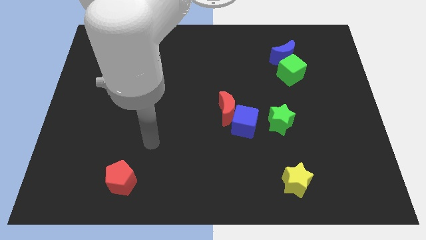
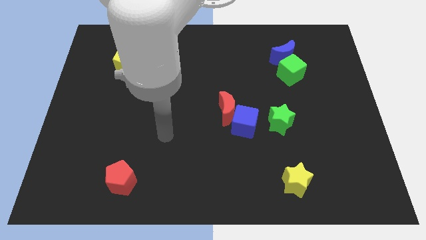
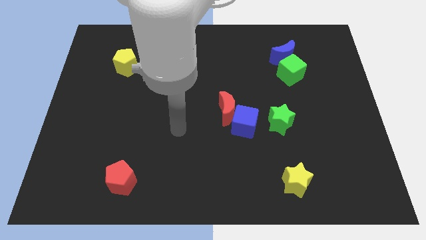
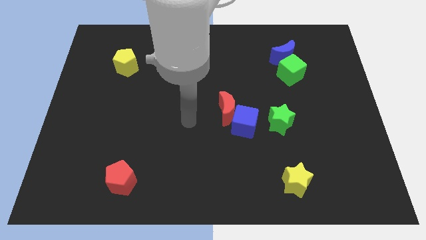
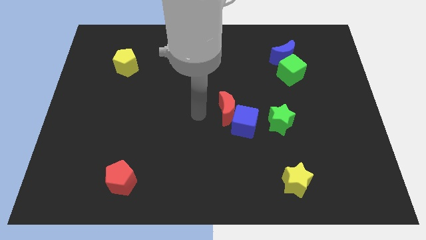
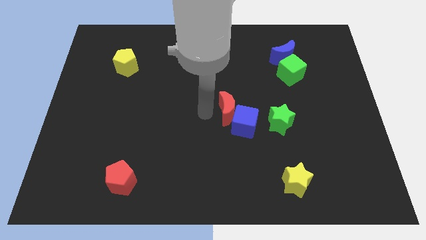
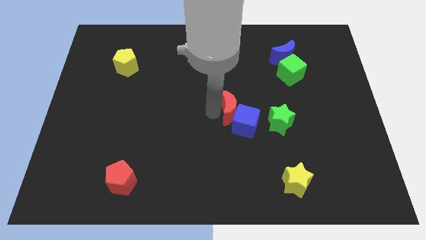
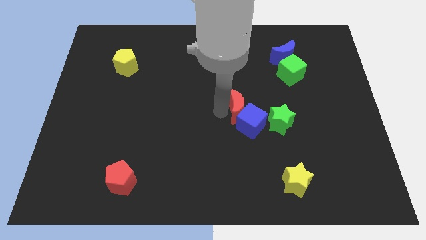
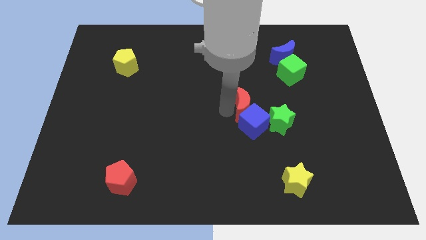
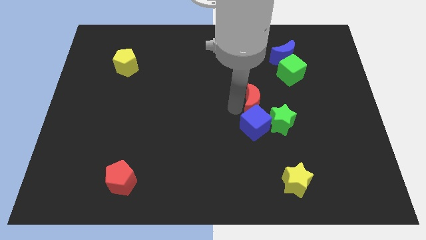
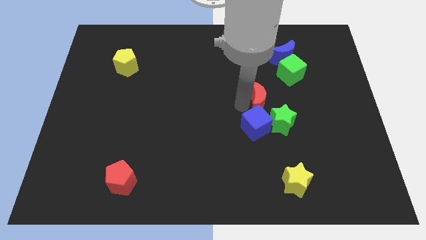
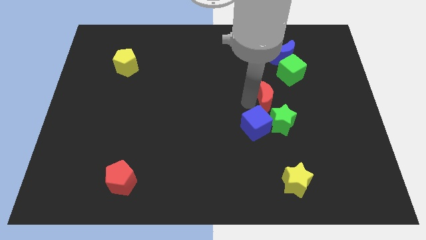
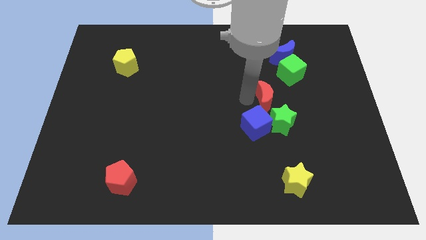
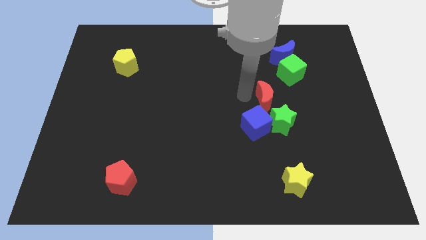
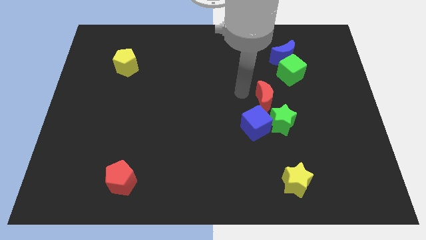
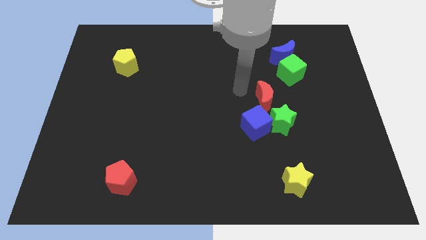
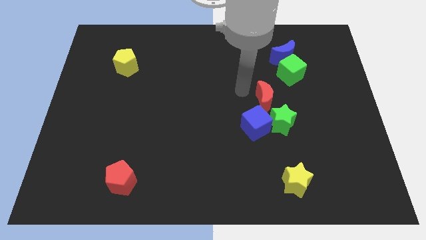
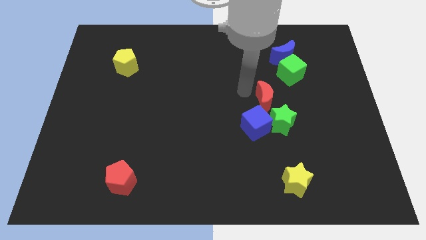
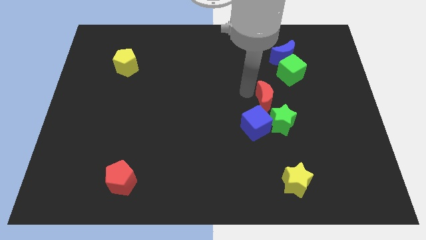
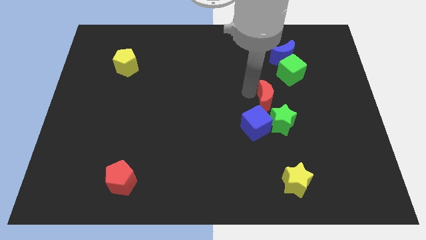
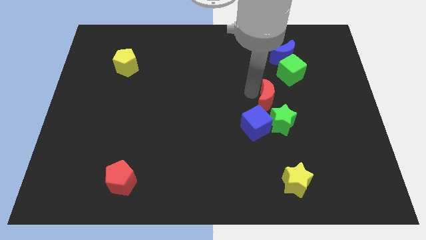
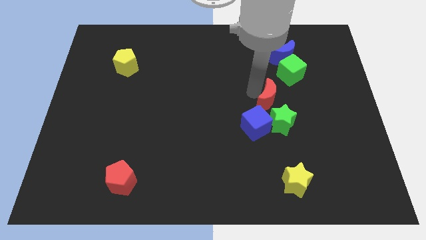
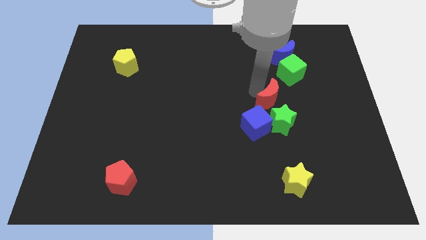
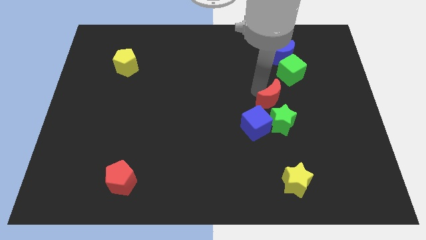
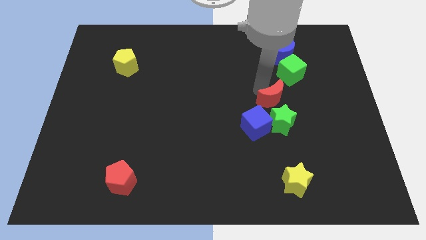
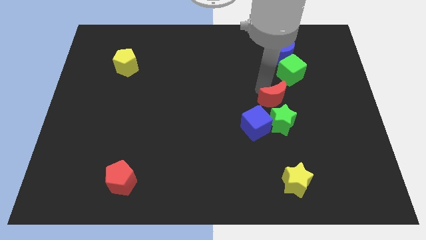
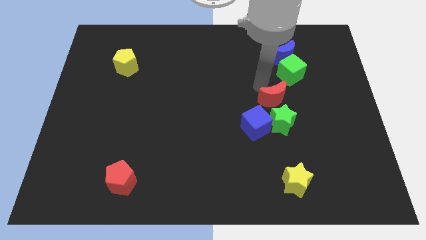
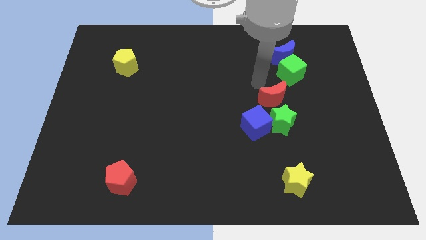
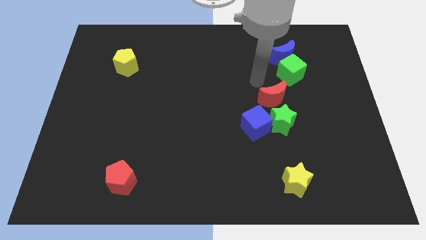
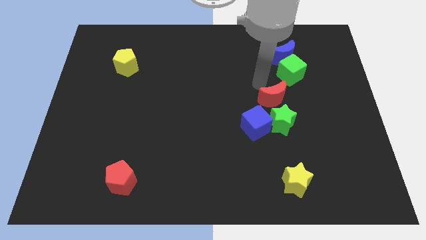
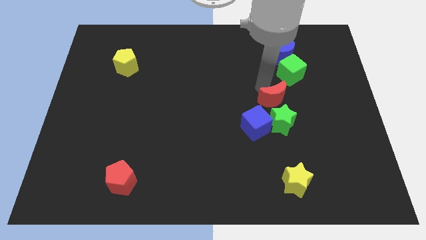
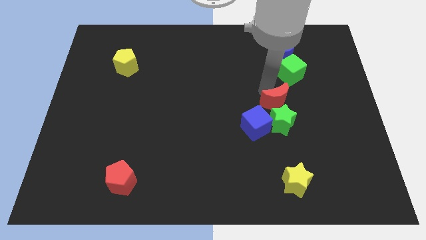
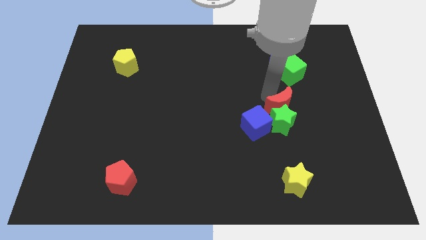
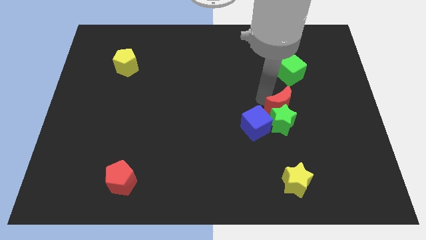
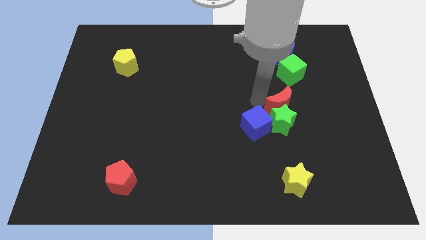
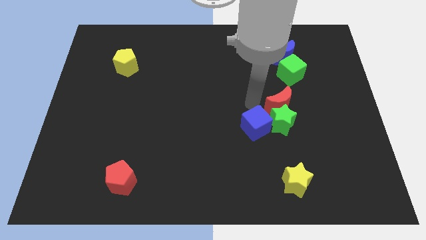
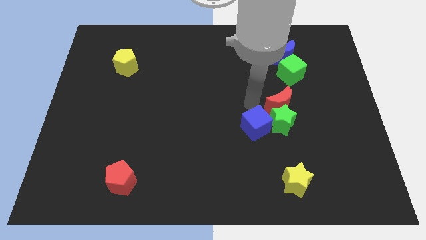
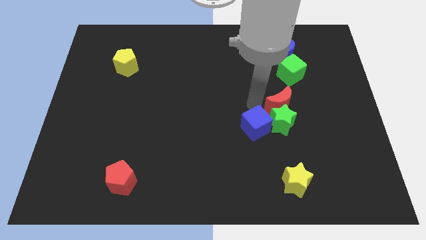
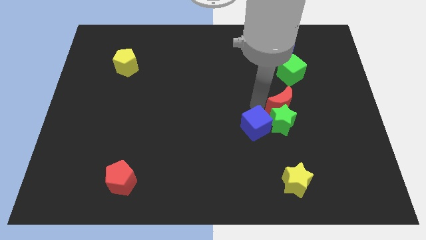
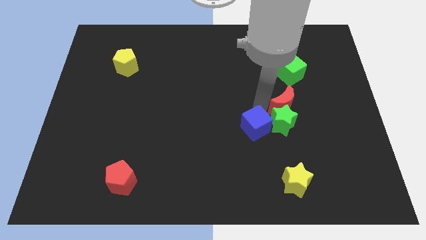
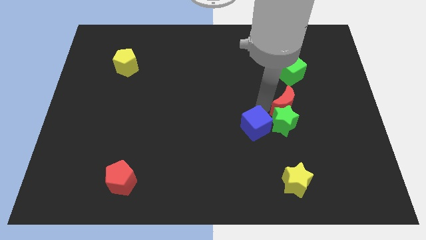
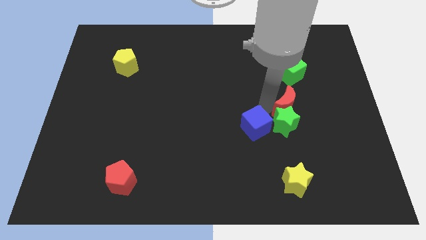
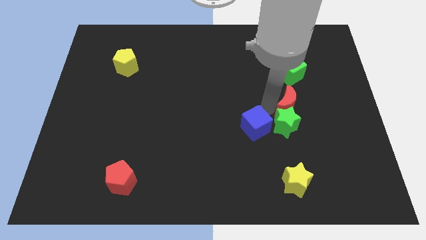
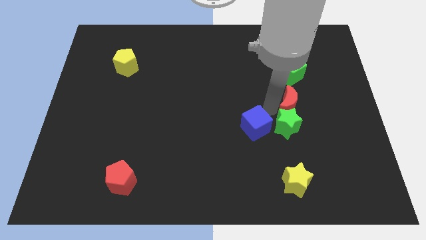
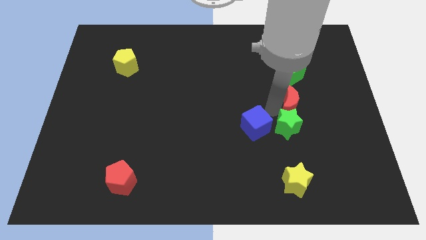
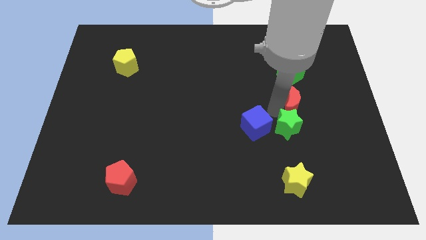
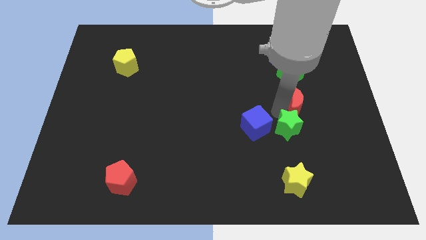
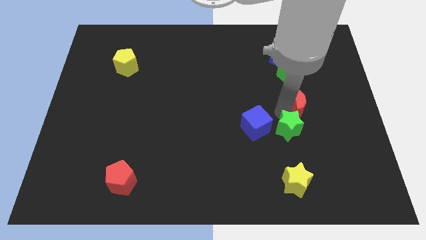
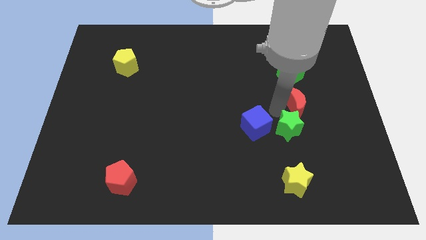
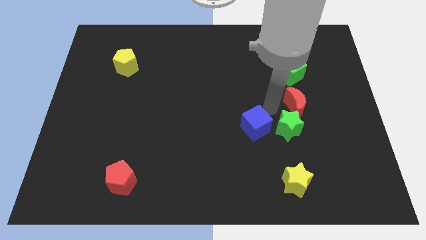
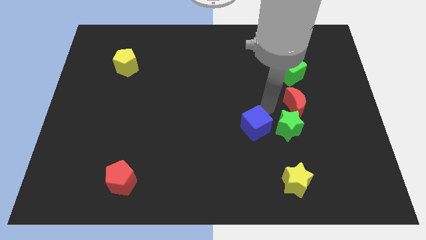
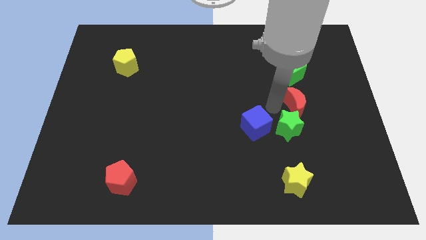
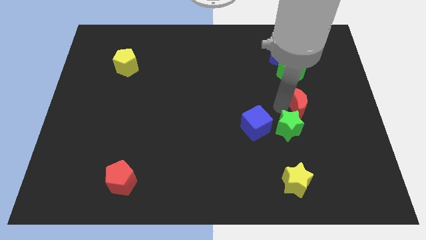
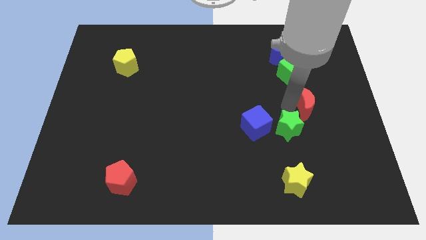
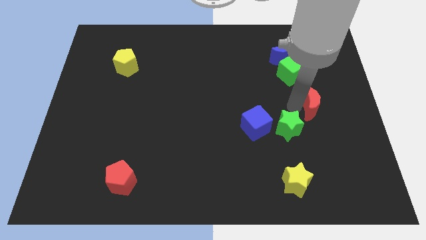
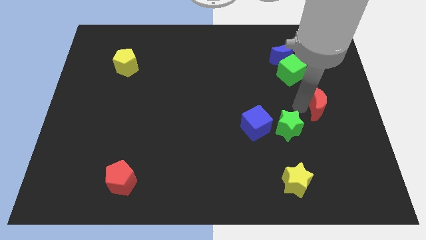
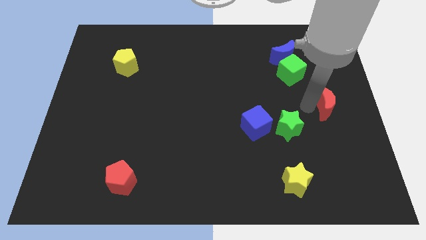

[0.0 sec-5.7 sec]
put the red moon to the right side

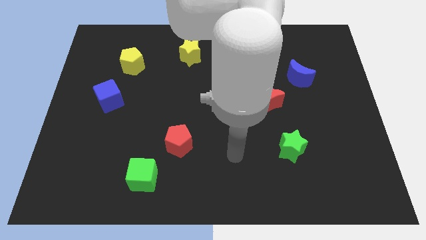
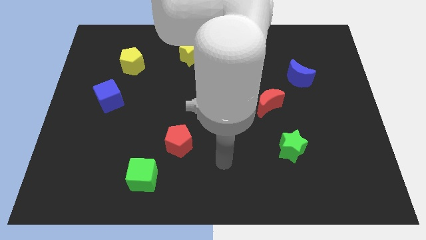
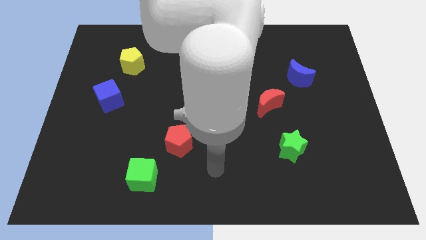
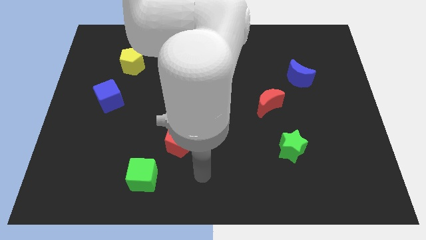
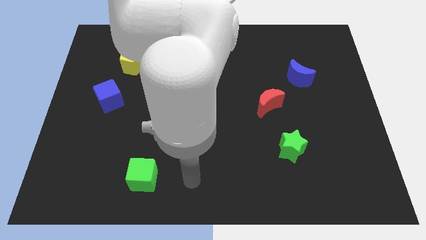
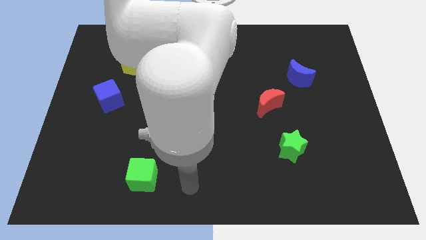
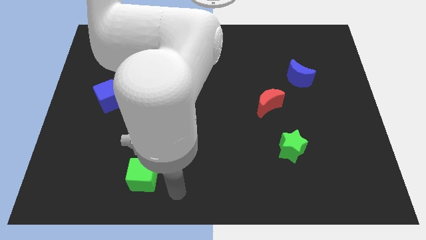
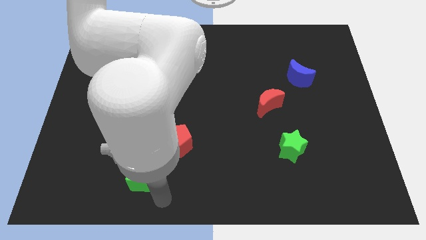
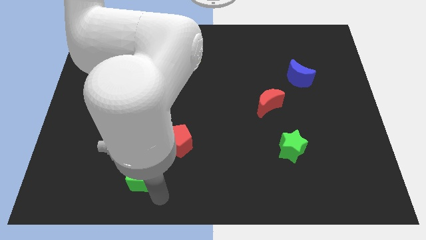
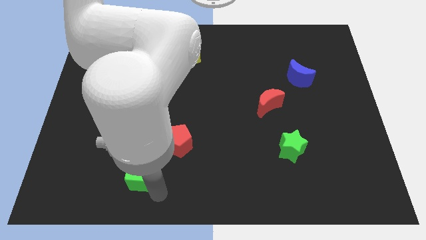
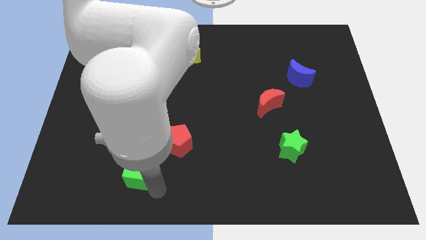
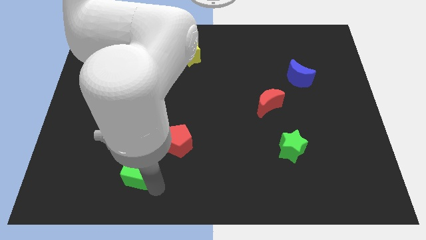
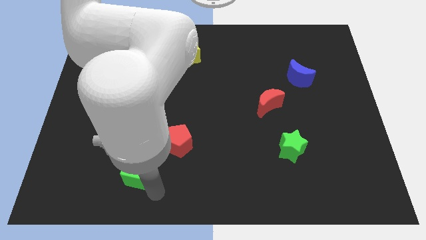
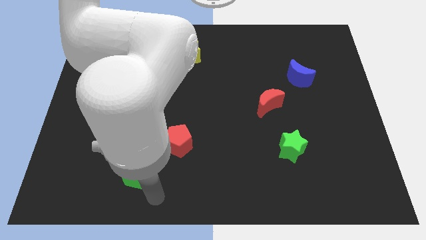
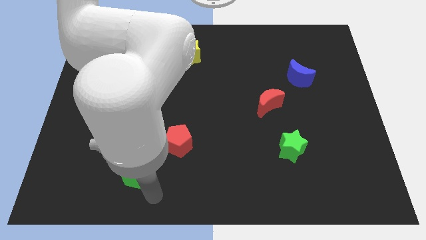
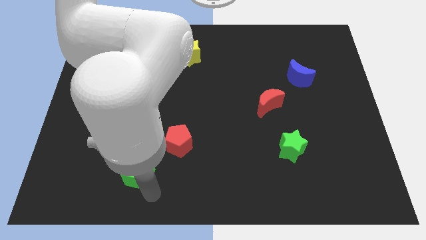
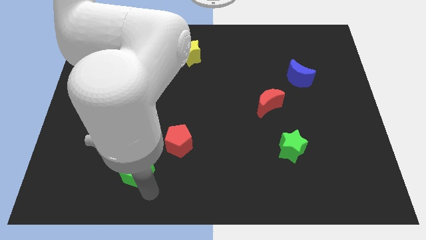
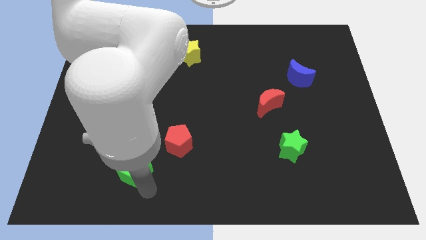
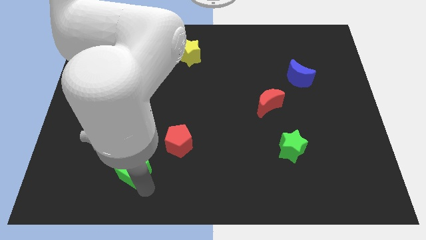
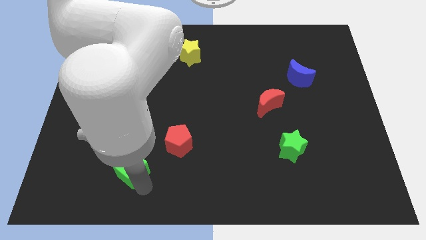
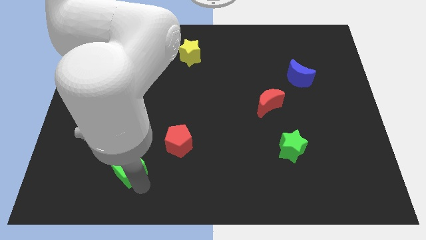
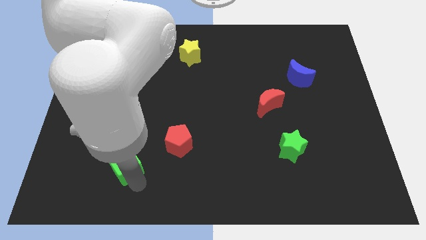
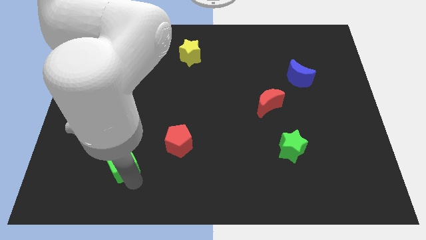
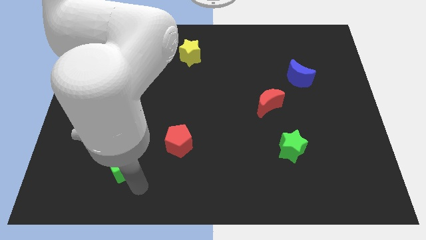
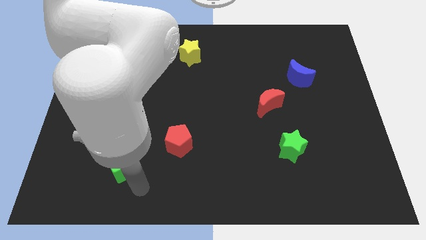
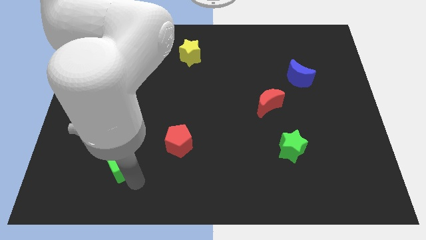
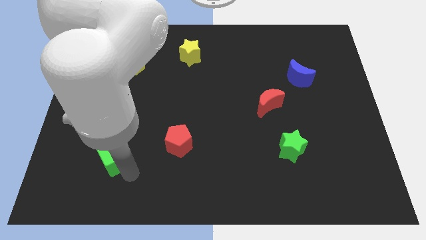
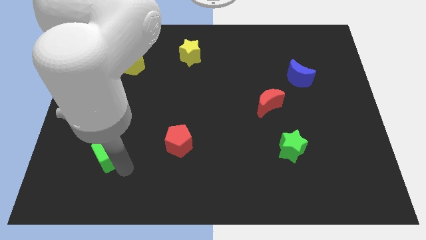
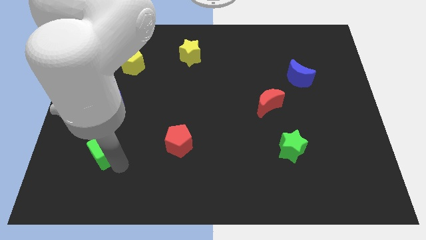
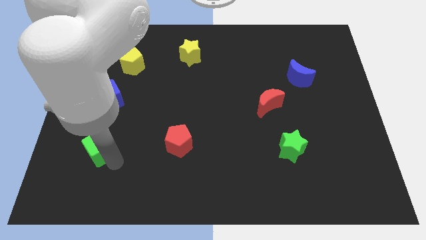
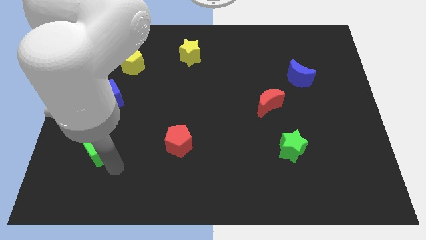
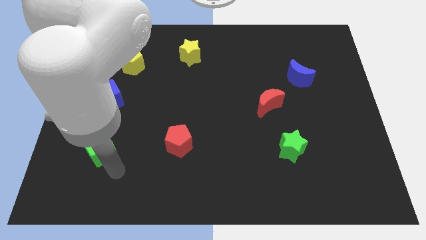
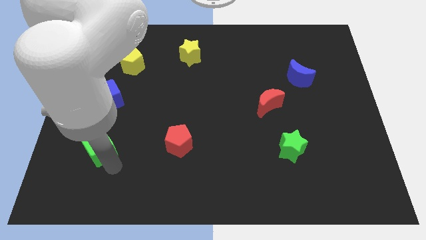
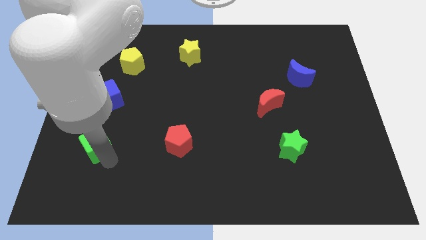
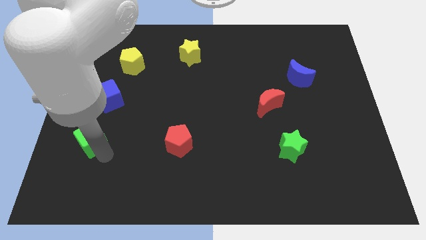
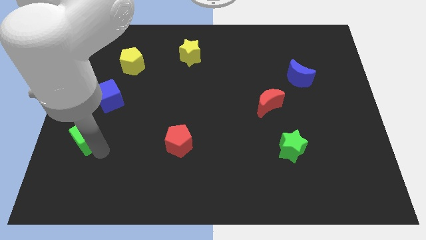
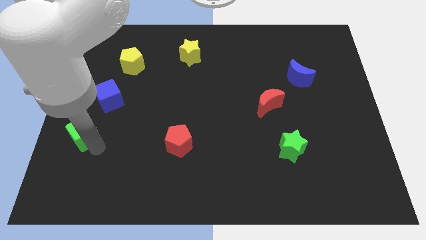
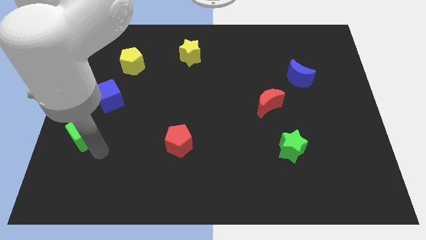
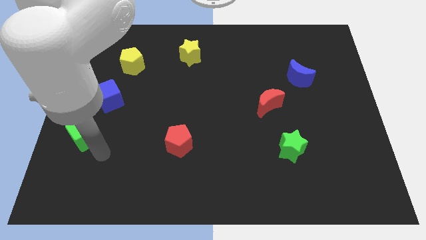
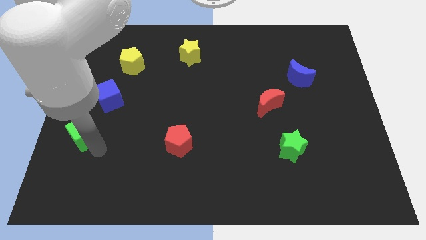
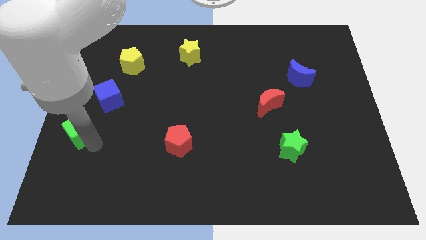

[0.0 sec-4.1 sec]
put the green cube to the center left
